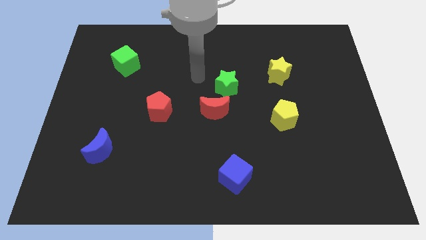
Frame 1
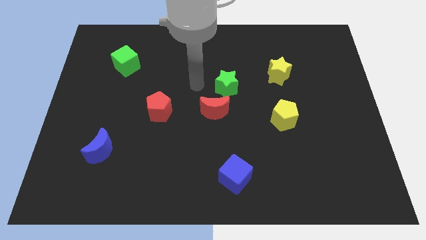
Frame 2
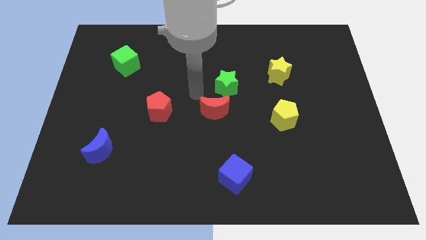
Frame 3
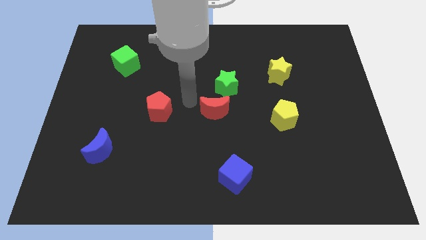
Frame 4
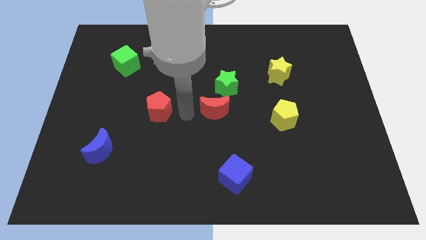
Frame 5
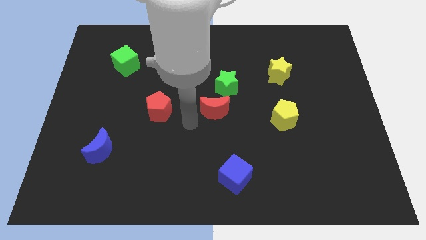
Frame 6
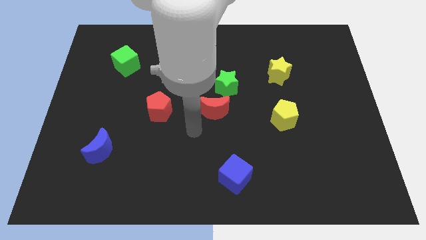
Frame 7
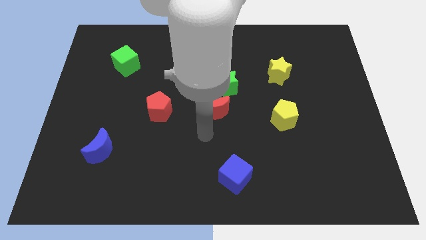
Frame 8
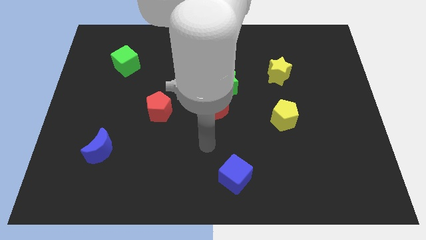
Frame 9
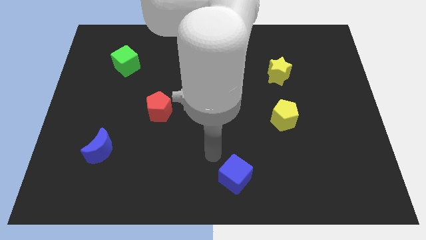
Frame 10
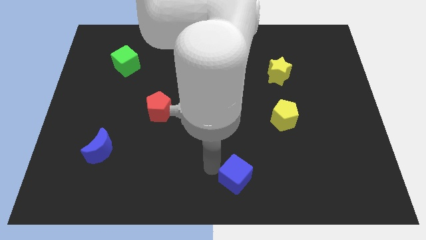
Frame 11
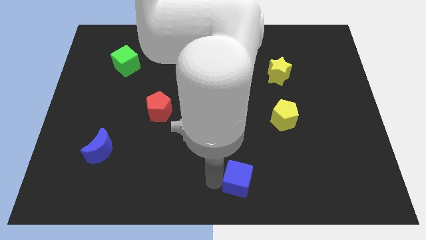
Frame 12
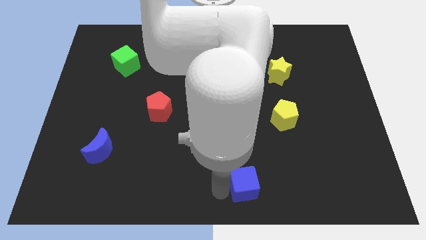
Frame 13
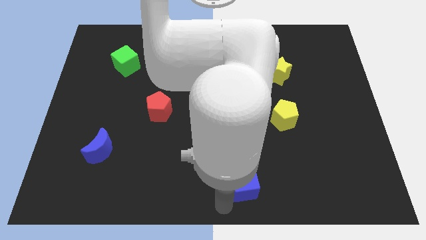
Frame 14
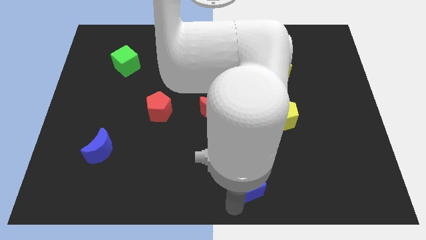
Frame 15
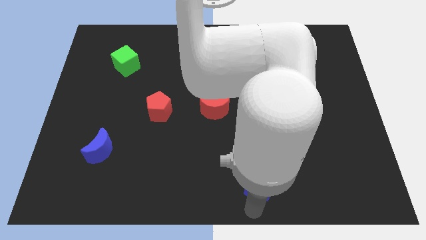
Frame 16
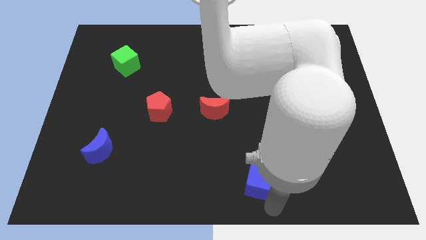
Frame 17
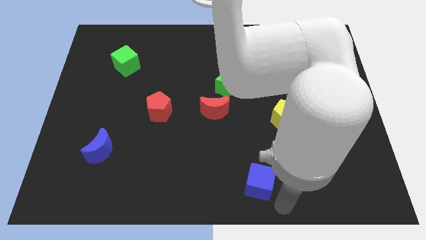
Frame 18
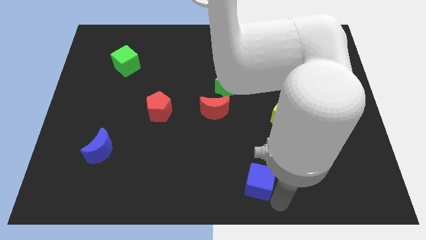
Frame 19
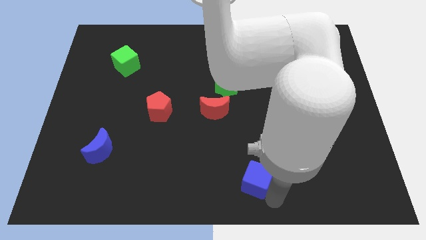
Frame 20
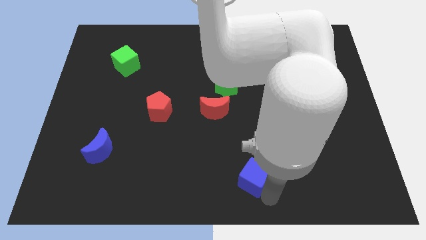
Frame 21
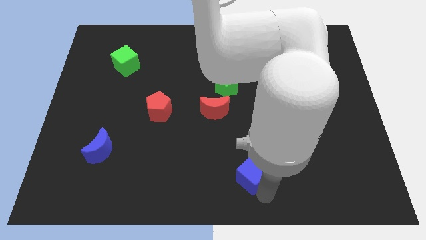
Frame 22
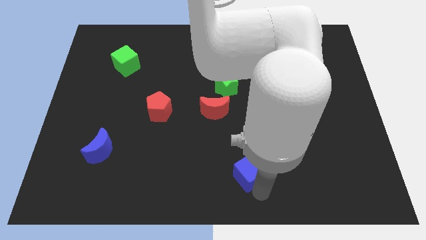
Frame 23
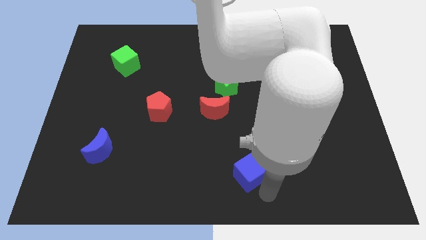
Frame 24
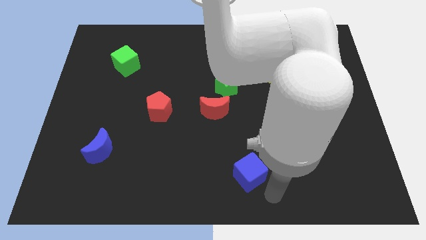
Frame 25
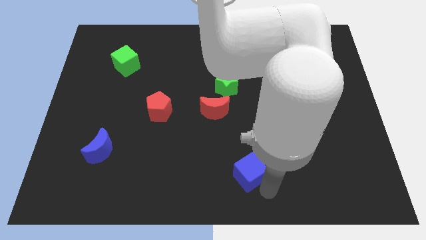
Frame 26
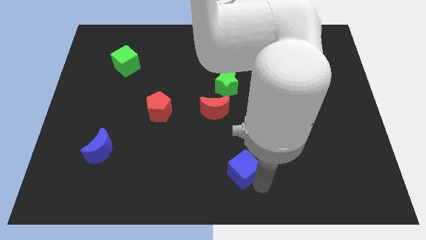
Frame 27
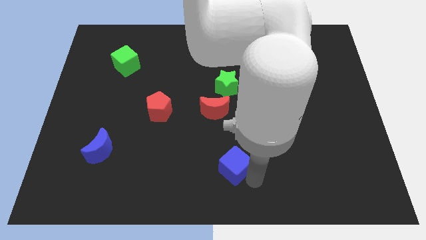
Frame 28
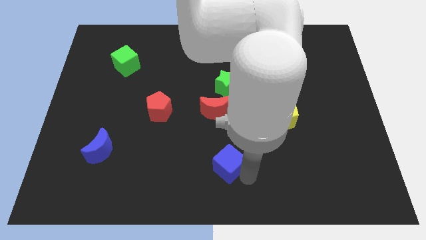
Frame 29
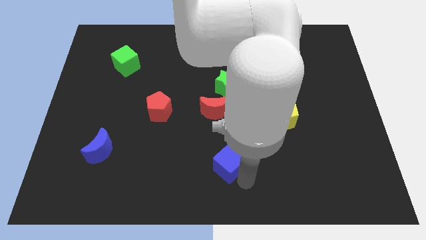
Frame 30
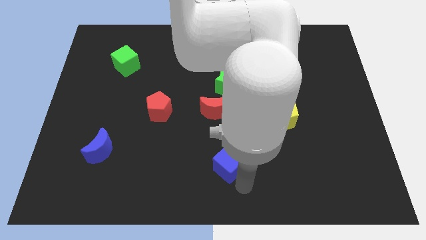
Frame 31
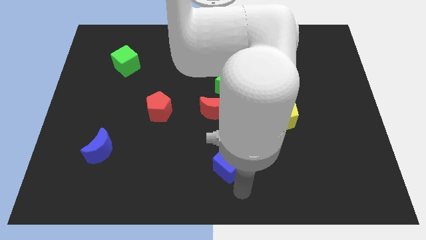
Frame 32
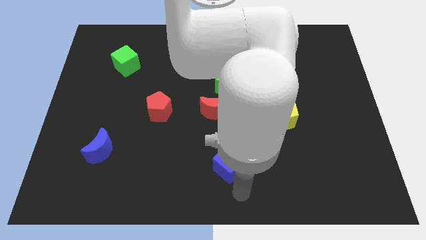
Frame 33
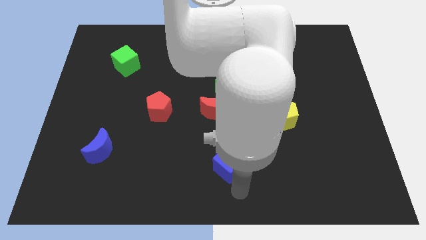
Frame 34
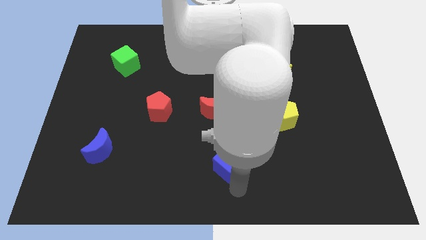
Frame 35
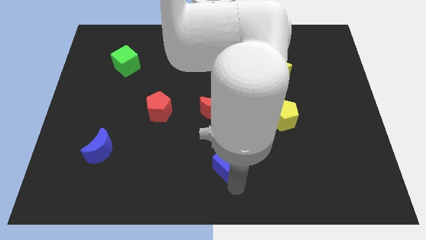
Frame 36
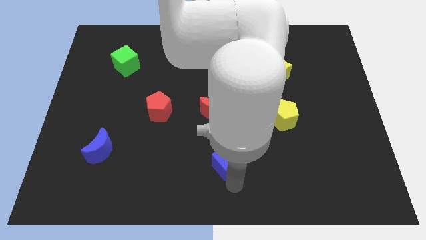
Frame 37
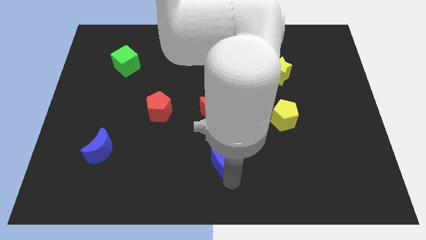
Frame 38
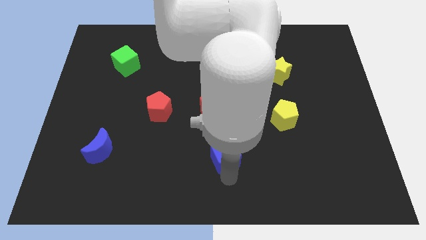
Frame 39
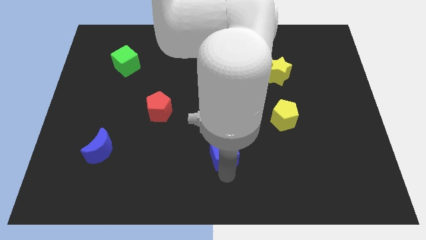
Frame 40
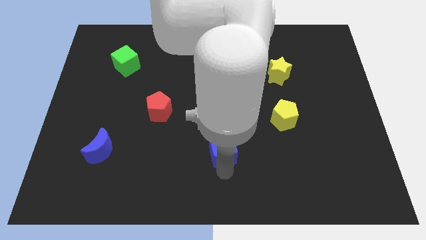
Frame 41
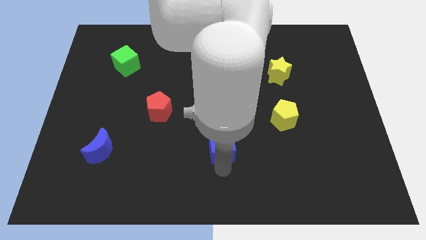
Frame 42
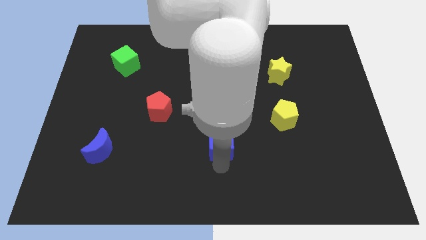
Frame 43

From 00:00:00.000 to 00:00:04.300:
slightly slide the blue cube up

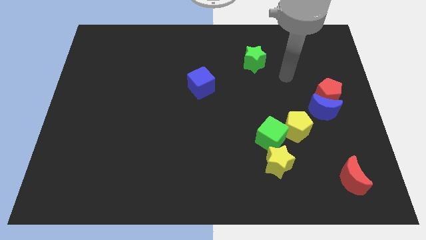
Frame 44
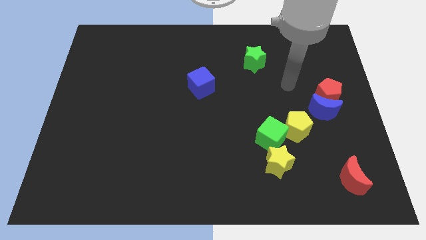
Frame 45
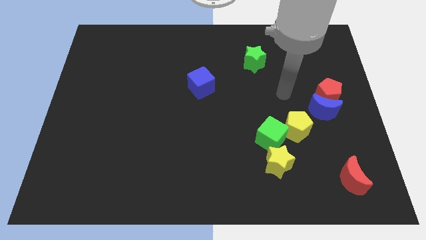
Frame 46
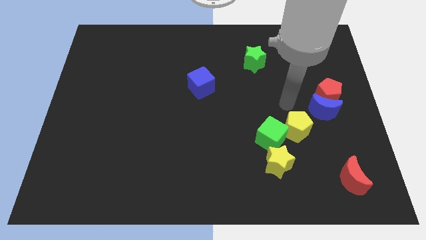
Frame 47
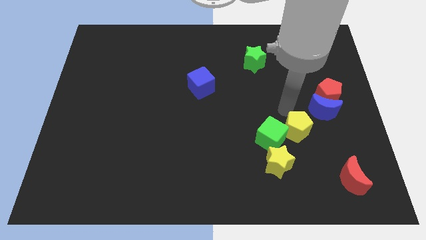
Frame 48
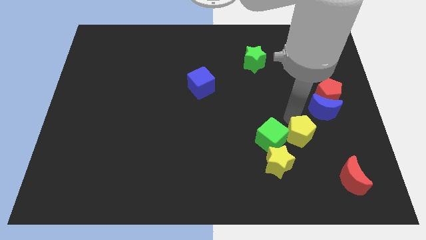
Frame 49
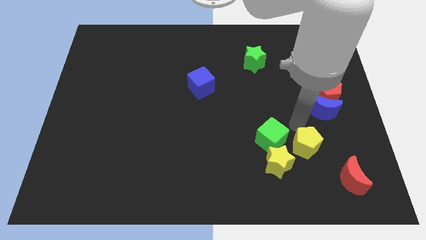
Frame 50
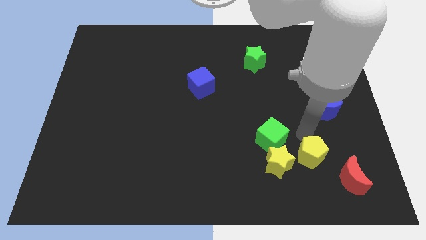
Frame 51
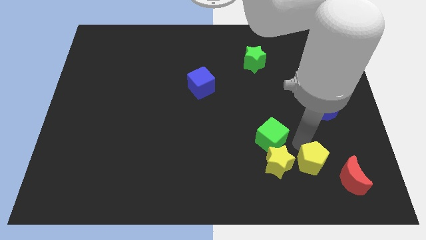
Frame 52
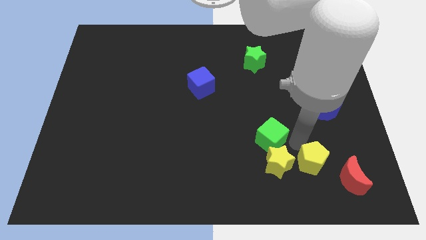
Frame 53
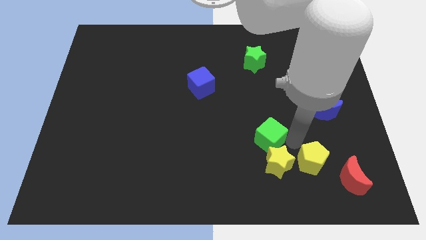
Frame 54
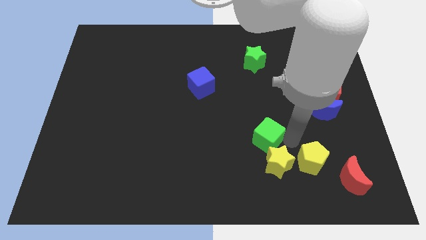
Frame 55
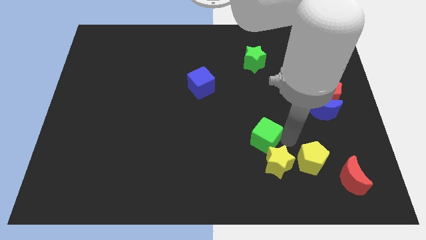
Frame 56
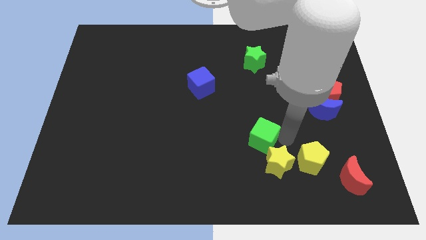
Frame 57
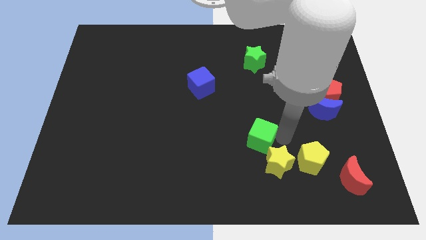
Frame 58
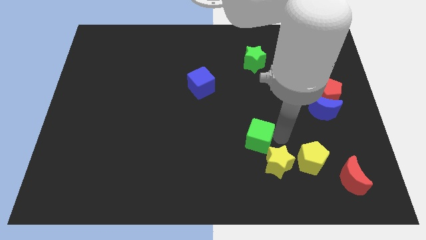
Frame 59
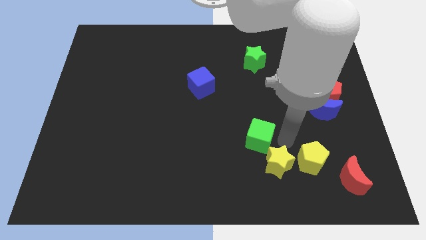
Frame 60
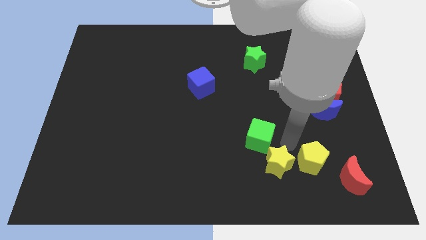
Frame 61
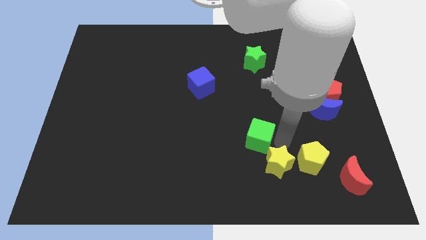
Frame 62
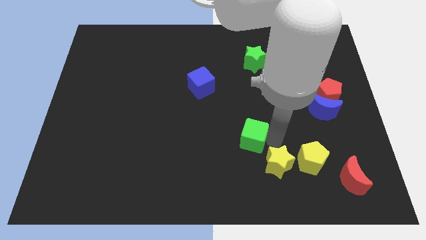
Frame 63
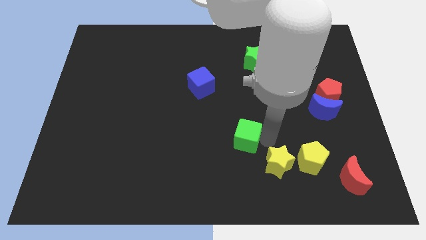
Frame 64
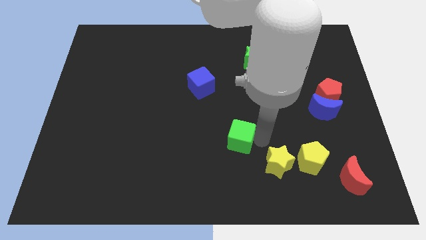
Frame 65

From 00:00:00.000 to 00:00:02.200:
slightly slide the green cube left

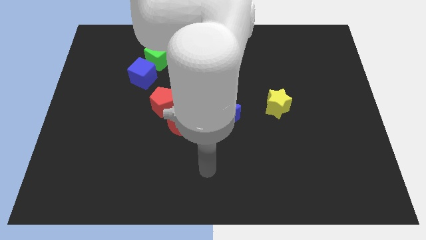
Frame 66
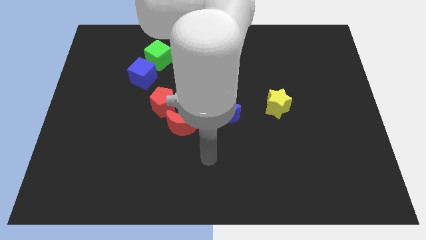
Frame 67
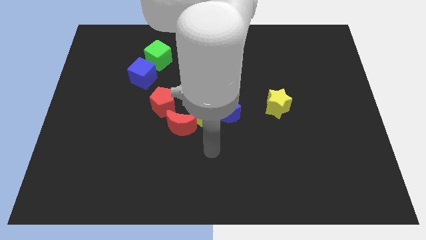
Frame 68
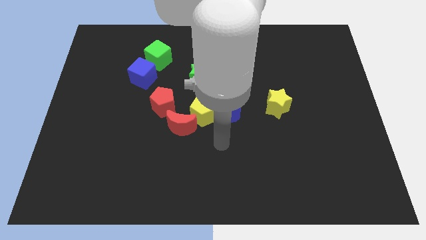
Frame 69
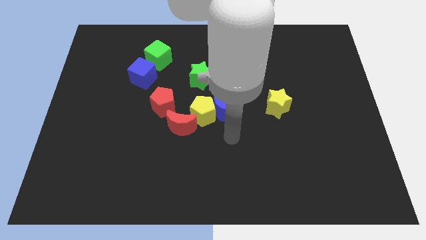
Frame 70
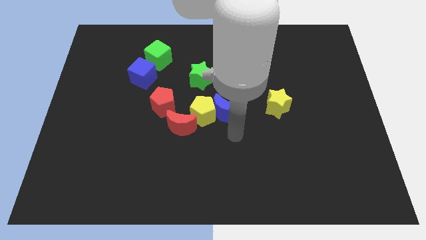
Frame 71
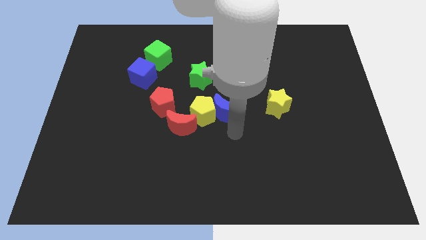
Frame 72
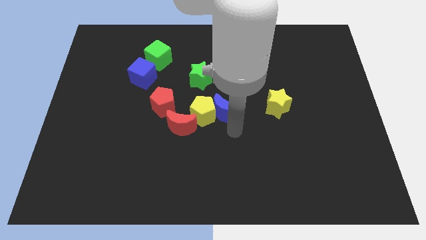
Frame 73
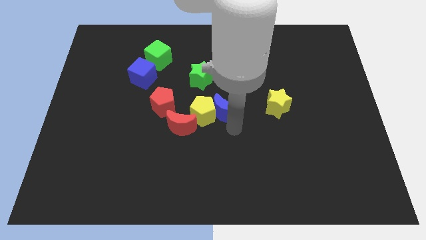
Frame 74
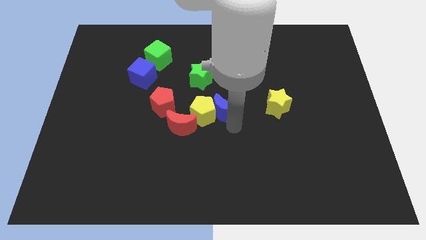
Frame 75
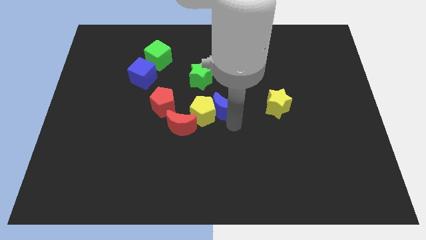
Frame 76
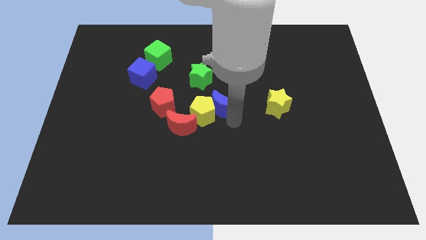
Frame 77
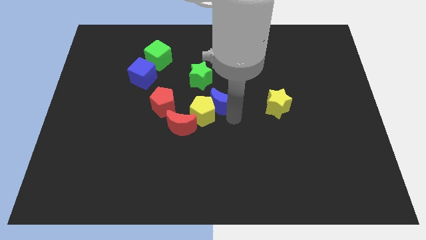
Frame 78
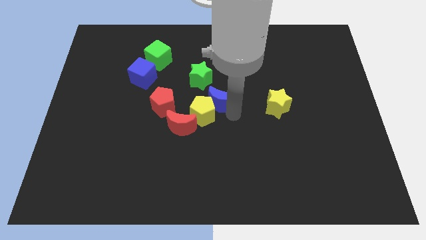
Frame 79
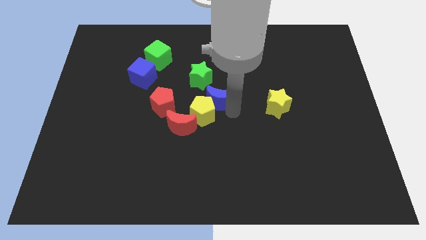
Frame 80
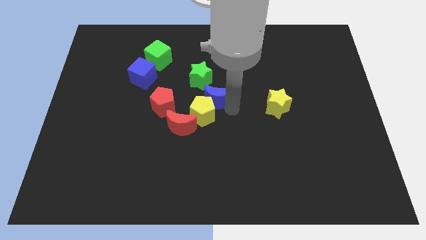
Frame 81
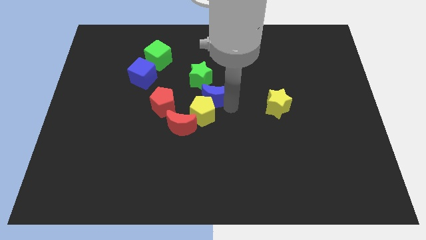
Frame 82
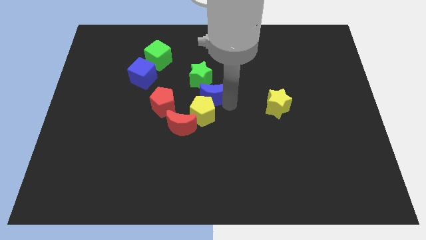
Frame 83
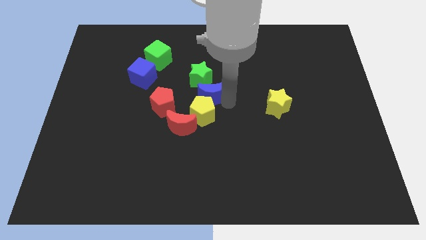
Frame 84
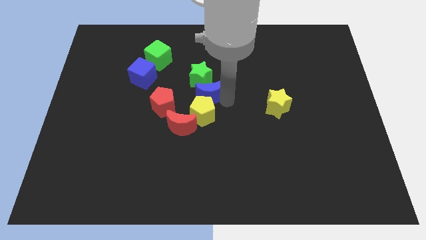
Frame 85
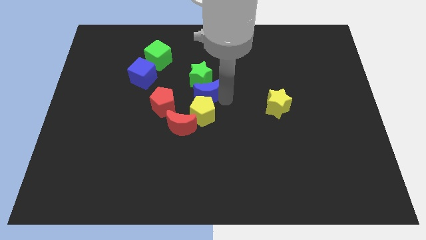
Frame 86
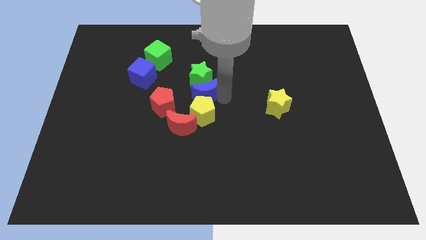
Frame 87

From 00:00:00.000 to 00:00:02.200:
move the blue moon slightly upwards and then to the left
